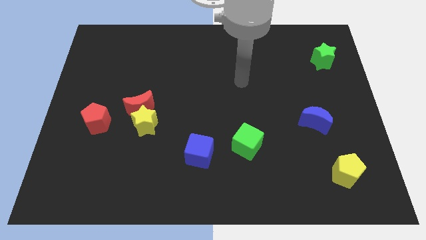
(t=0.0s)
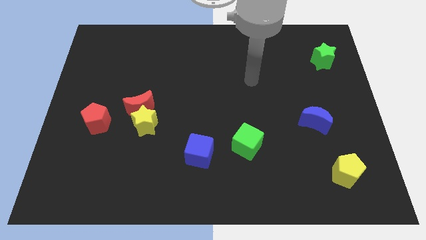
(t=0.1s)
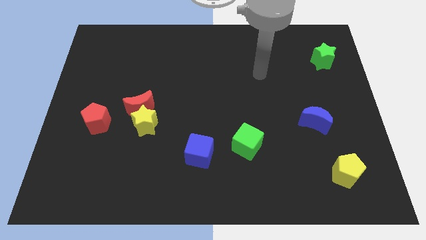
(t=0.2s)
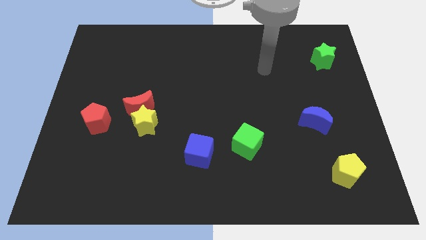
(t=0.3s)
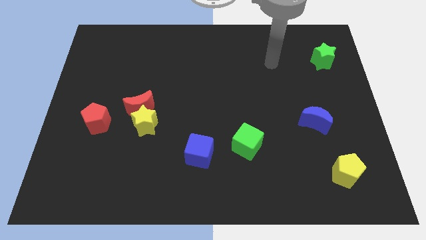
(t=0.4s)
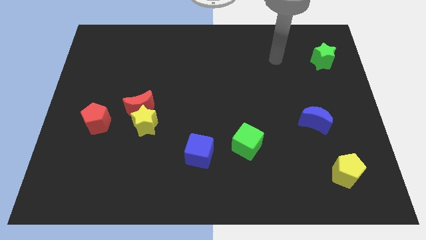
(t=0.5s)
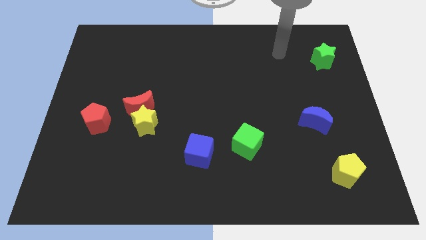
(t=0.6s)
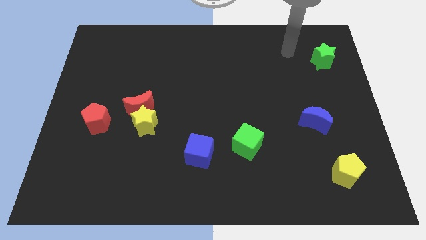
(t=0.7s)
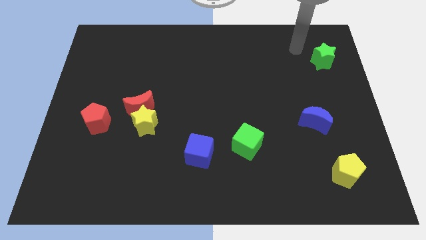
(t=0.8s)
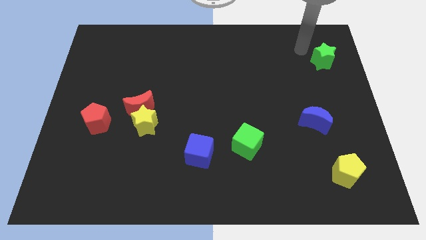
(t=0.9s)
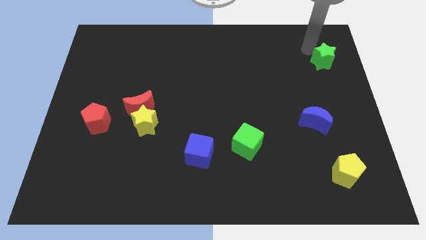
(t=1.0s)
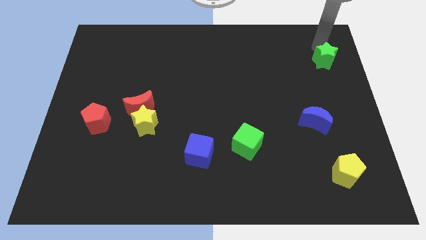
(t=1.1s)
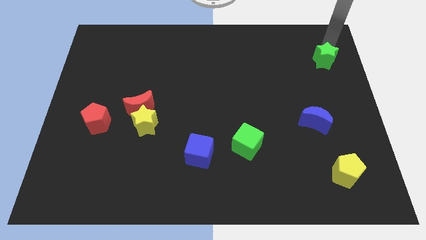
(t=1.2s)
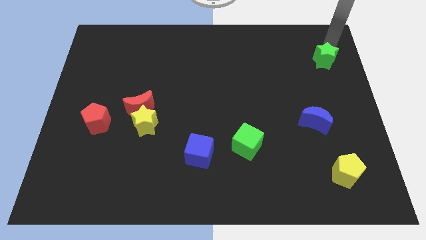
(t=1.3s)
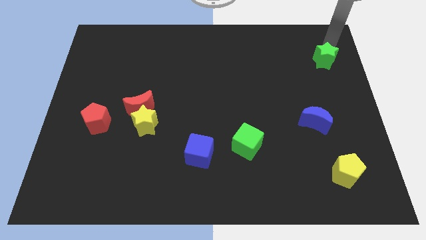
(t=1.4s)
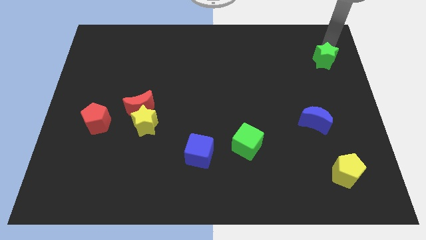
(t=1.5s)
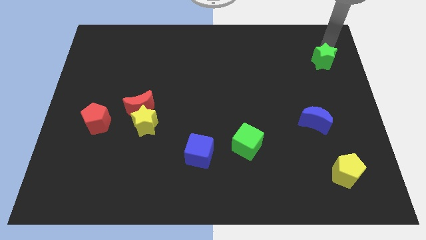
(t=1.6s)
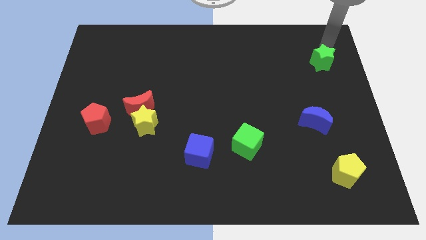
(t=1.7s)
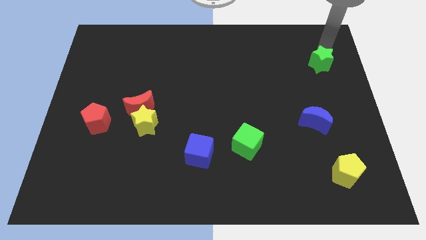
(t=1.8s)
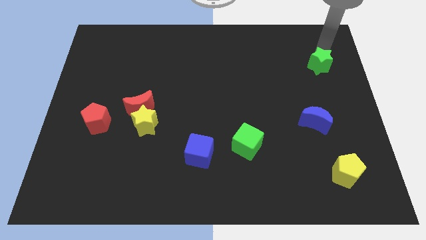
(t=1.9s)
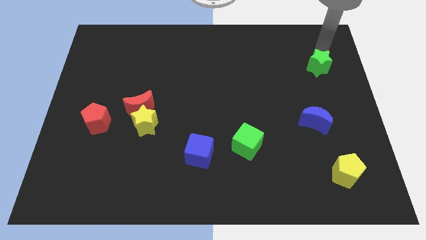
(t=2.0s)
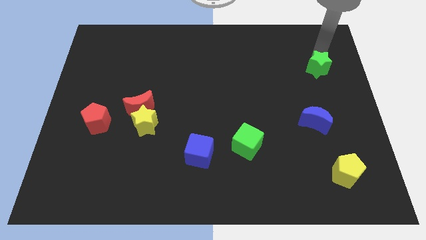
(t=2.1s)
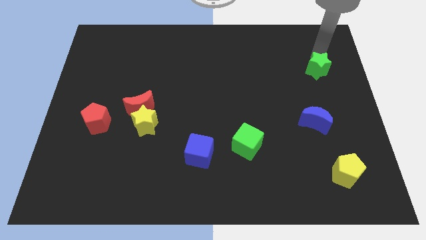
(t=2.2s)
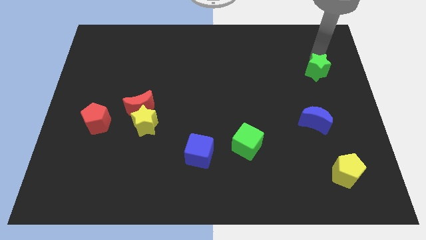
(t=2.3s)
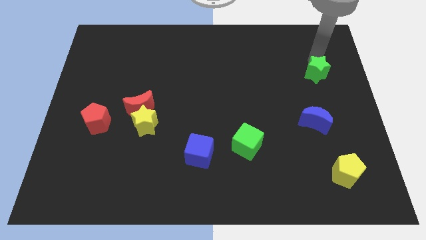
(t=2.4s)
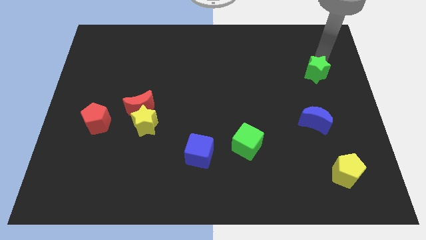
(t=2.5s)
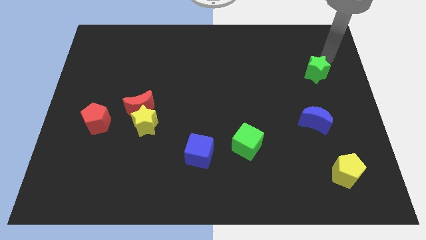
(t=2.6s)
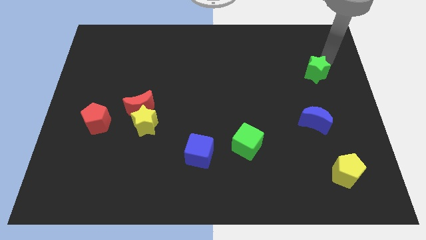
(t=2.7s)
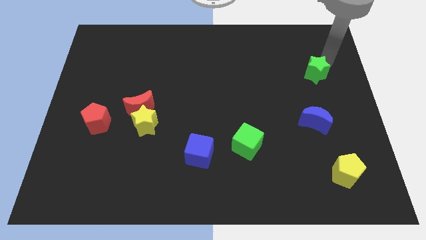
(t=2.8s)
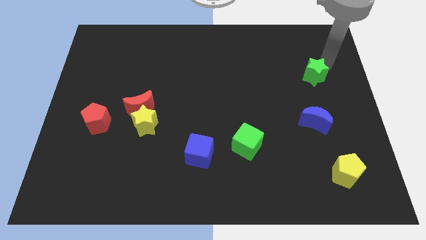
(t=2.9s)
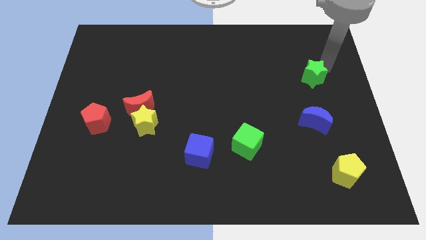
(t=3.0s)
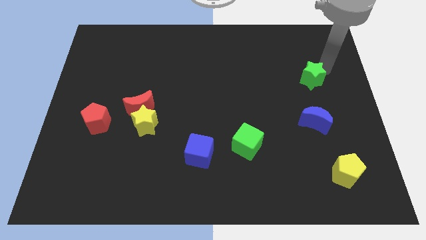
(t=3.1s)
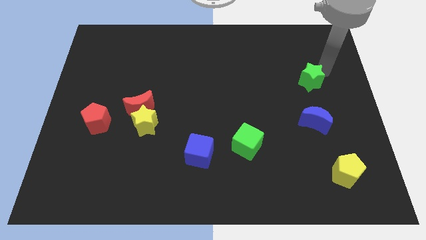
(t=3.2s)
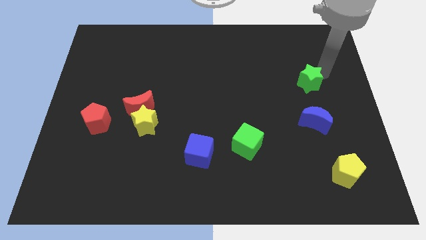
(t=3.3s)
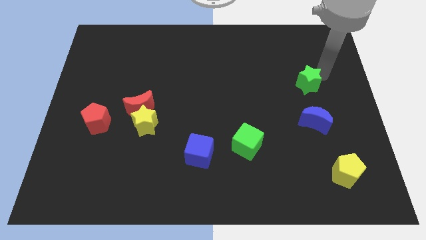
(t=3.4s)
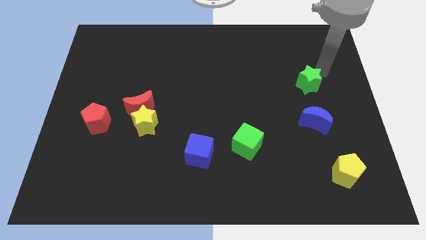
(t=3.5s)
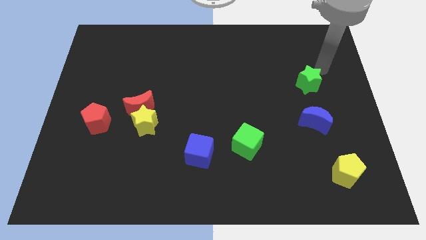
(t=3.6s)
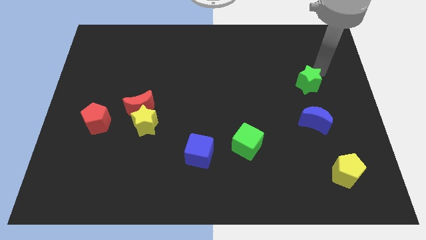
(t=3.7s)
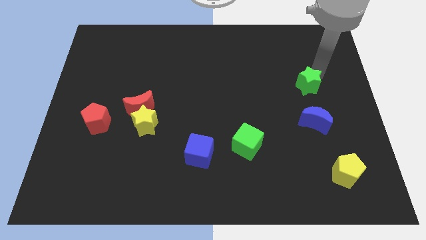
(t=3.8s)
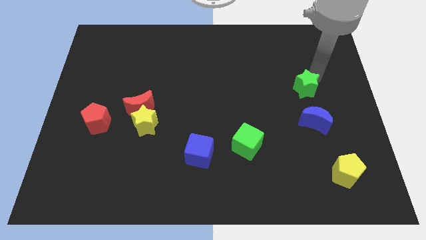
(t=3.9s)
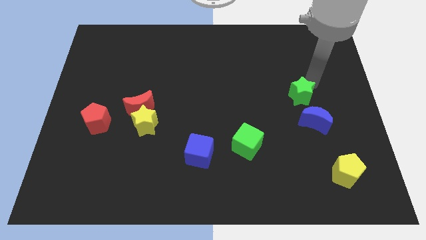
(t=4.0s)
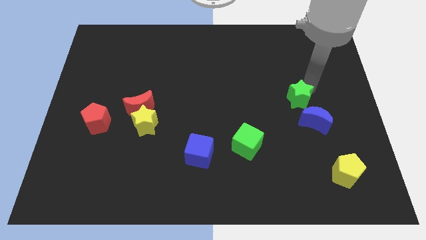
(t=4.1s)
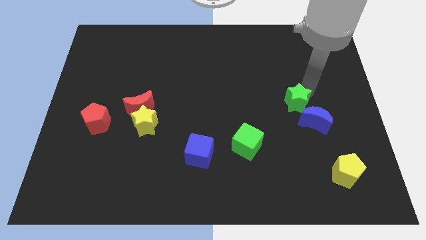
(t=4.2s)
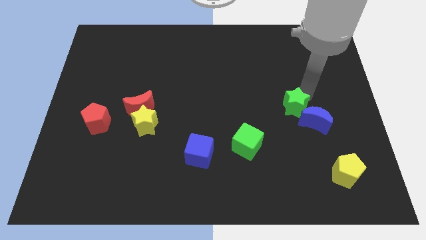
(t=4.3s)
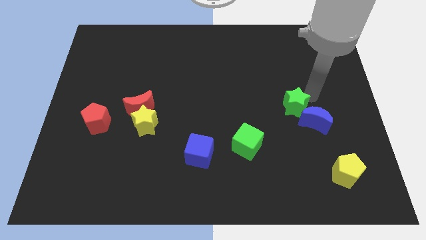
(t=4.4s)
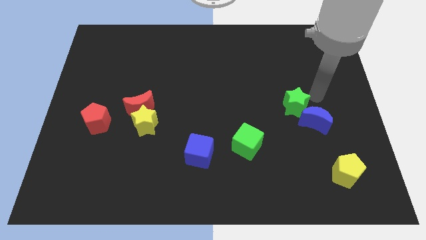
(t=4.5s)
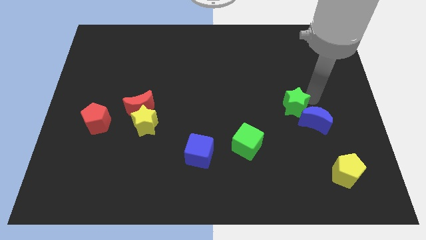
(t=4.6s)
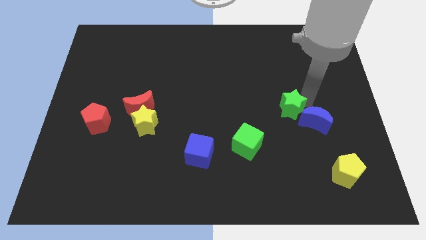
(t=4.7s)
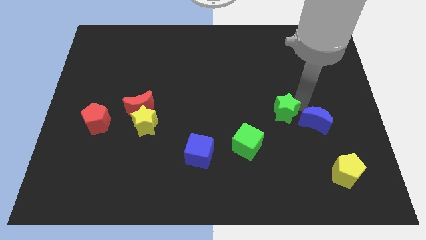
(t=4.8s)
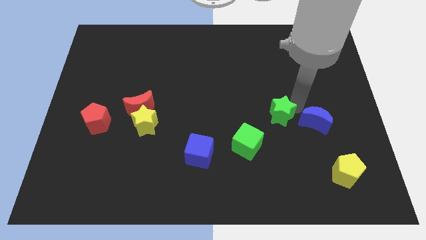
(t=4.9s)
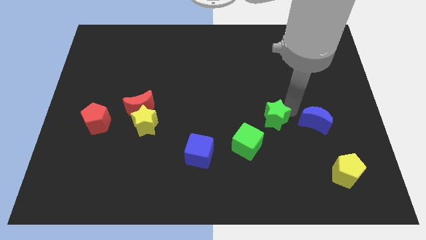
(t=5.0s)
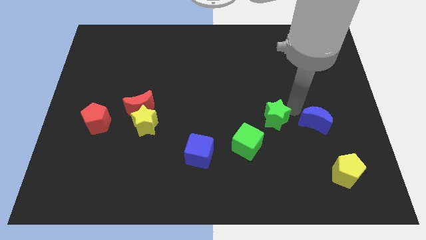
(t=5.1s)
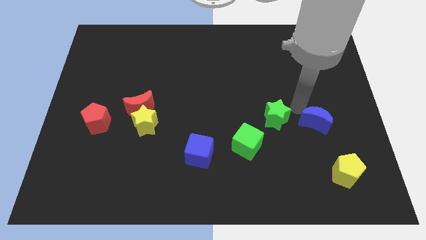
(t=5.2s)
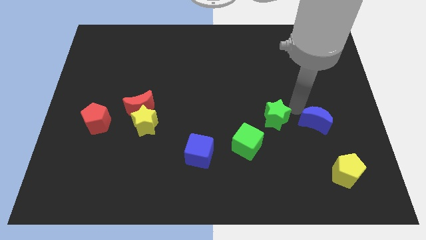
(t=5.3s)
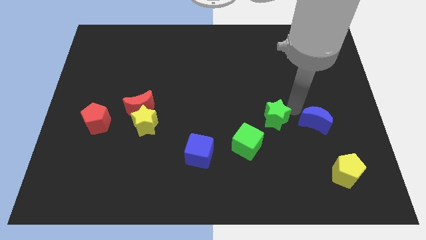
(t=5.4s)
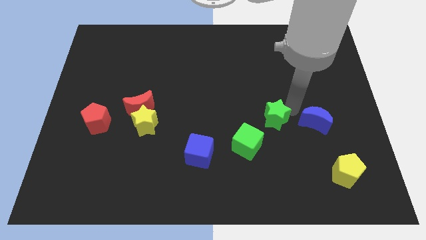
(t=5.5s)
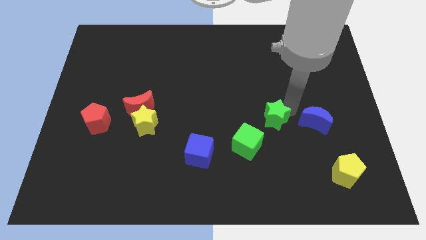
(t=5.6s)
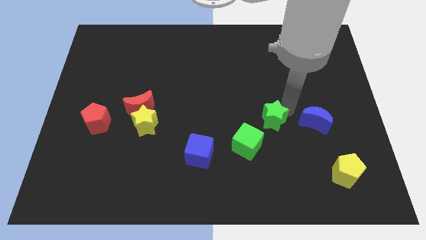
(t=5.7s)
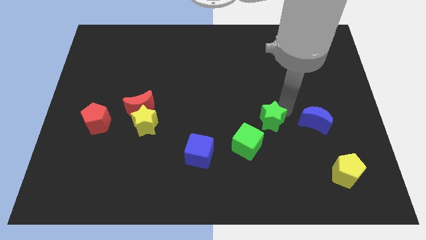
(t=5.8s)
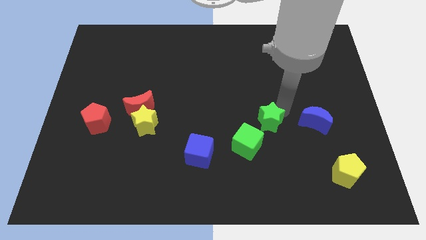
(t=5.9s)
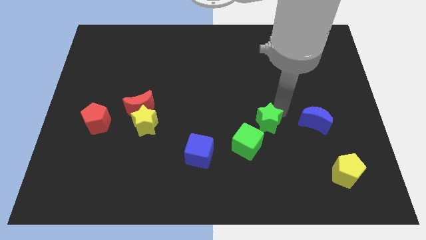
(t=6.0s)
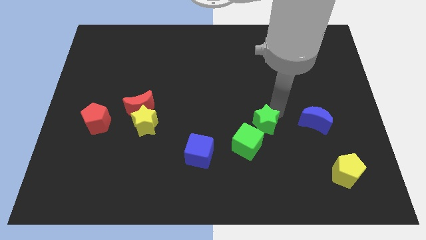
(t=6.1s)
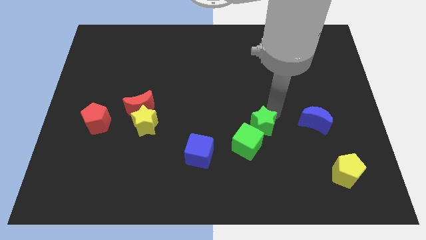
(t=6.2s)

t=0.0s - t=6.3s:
put the green star next to the green cube

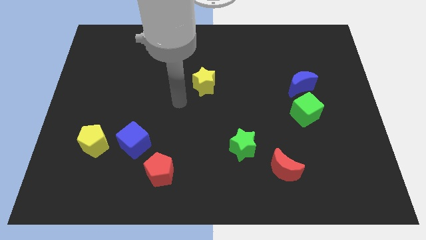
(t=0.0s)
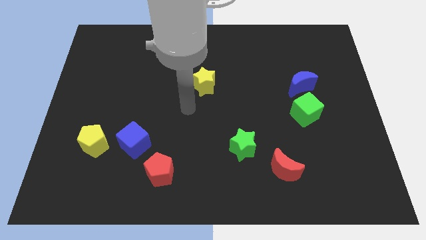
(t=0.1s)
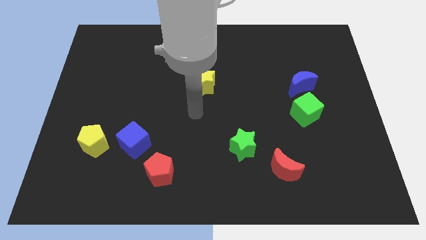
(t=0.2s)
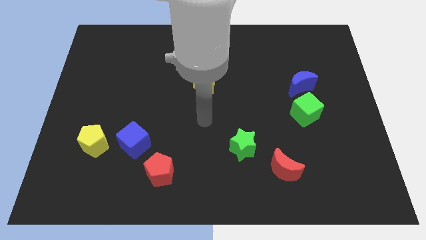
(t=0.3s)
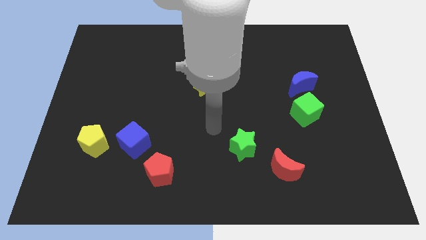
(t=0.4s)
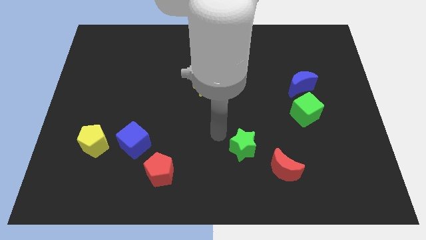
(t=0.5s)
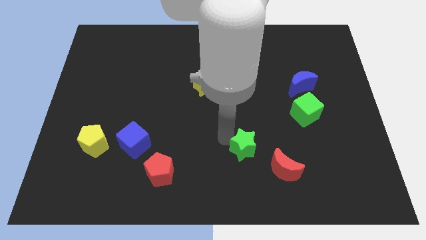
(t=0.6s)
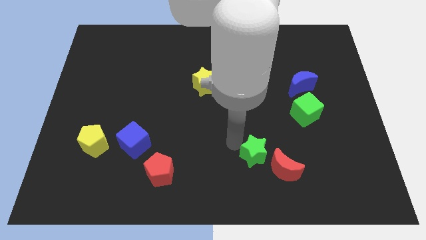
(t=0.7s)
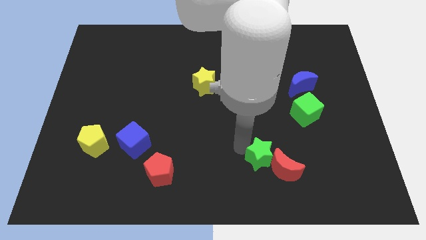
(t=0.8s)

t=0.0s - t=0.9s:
push the green star close to the red moon
